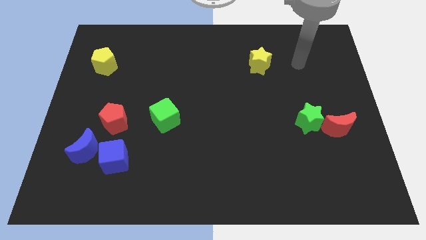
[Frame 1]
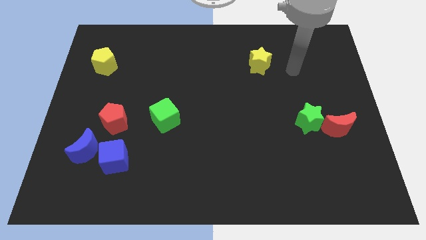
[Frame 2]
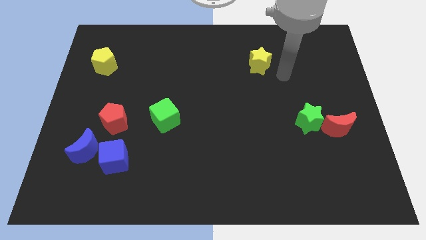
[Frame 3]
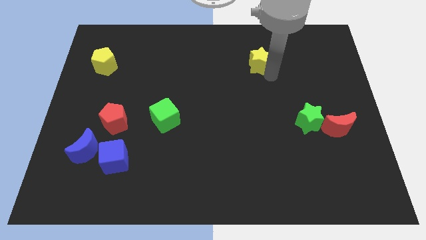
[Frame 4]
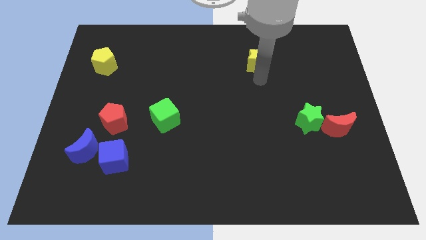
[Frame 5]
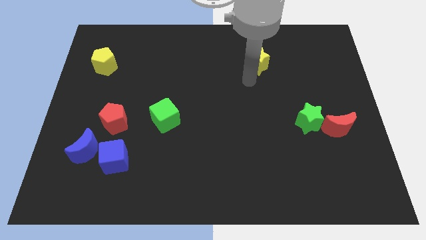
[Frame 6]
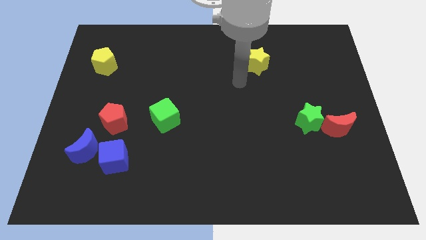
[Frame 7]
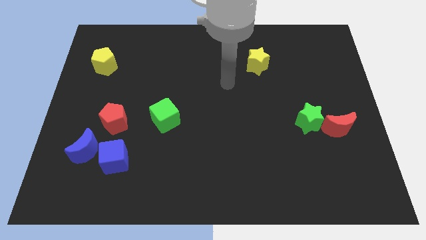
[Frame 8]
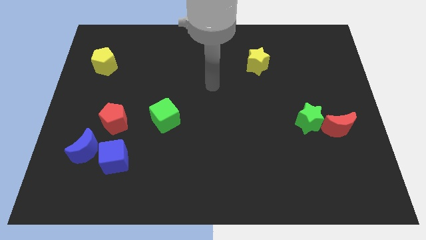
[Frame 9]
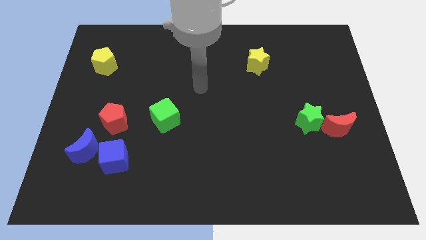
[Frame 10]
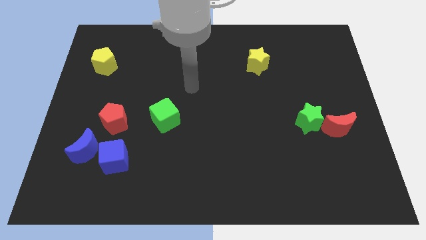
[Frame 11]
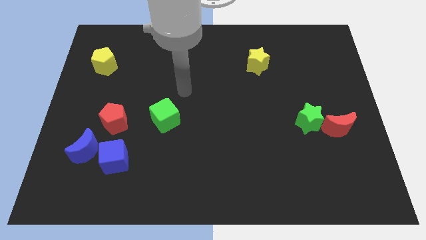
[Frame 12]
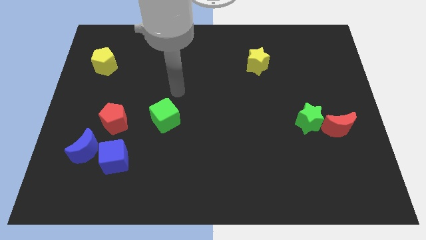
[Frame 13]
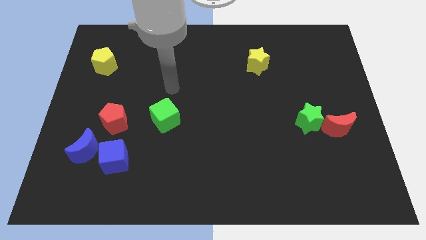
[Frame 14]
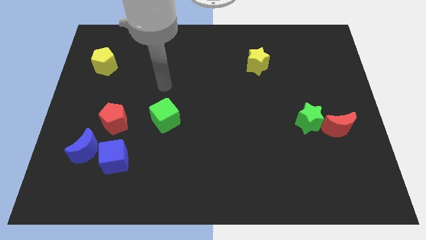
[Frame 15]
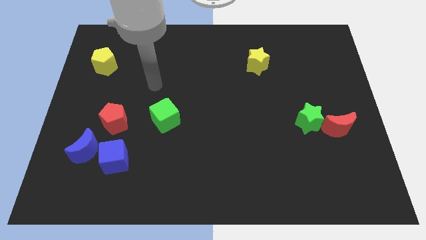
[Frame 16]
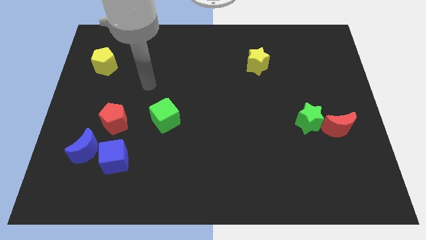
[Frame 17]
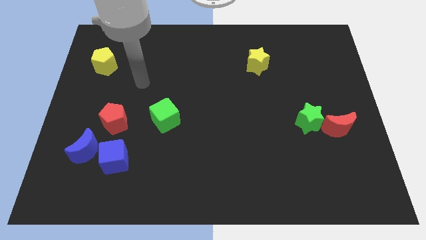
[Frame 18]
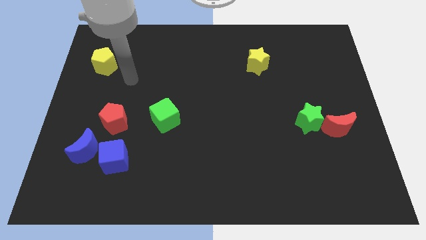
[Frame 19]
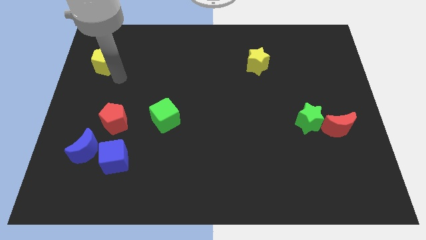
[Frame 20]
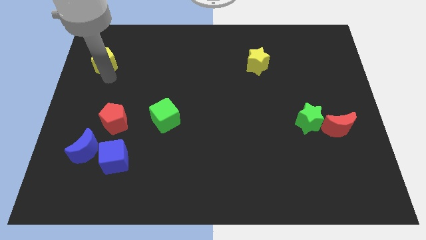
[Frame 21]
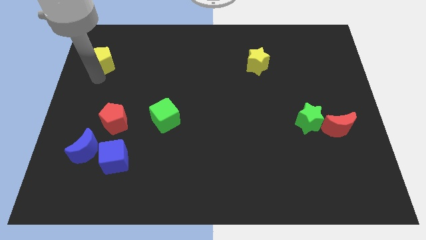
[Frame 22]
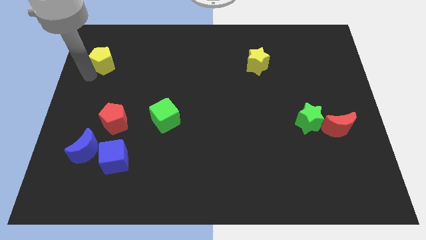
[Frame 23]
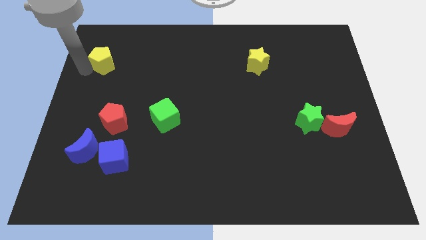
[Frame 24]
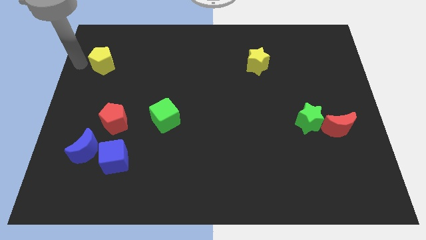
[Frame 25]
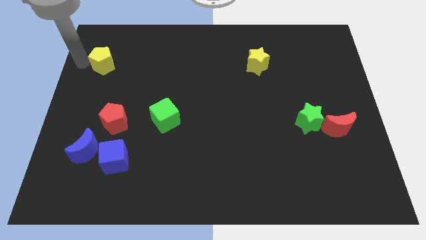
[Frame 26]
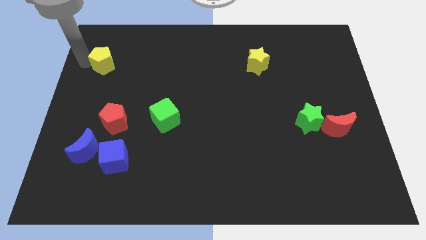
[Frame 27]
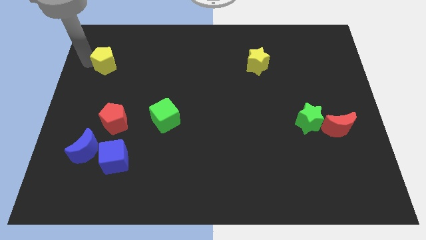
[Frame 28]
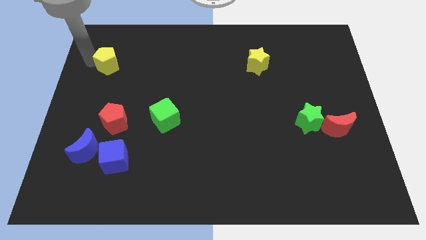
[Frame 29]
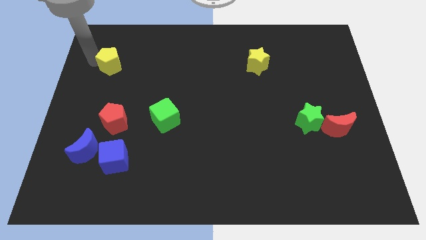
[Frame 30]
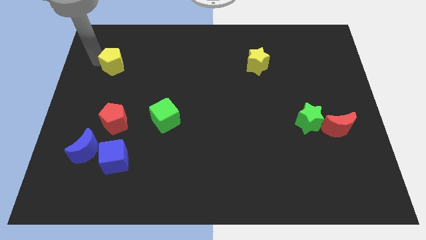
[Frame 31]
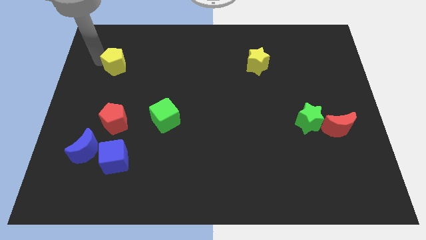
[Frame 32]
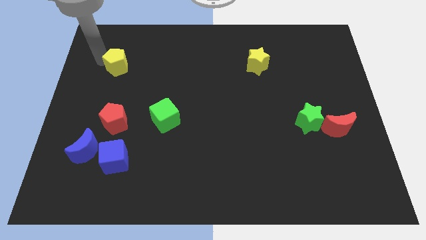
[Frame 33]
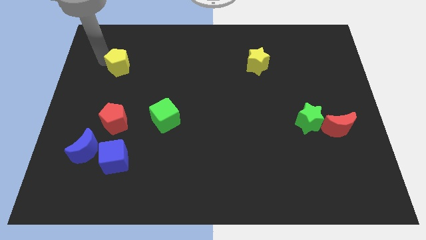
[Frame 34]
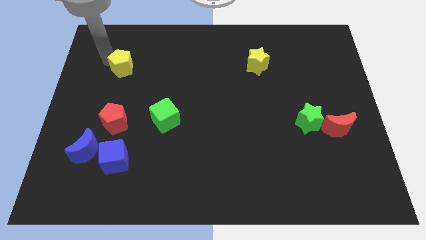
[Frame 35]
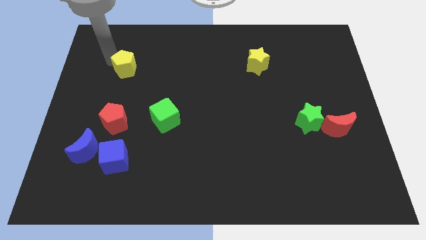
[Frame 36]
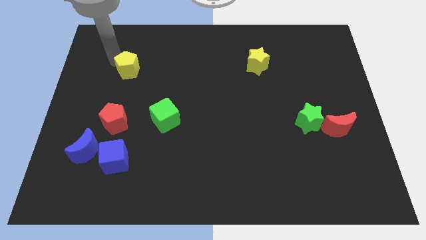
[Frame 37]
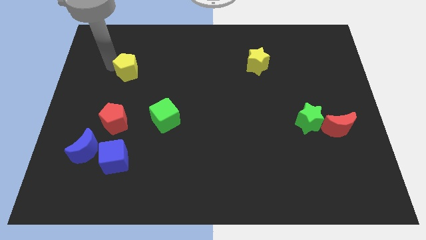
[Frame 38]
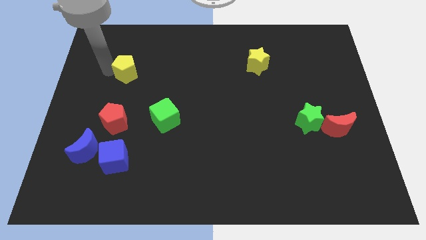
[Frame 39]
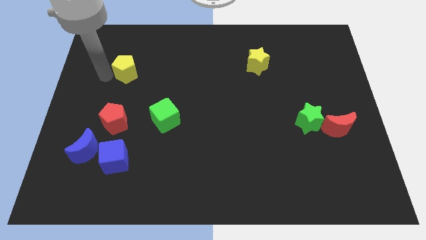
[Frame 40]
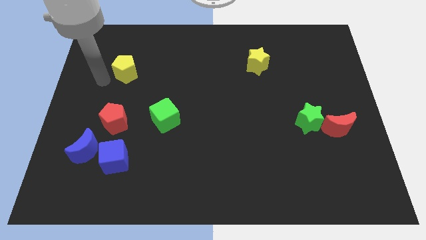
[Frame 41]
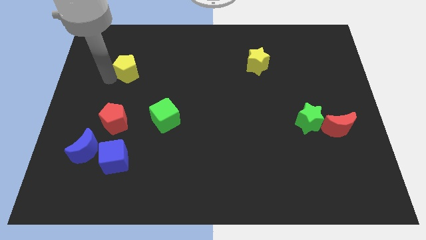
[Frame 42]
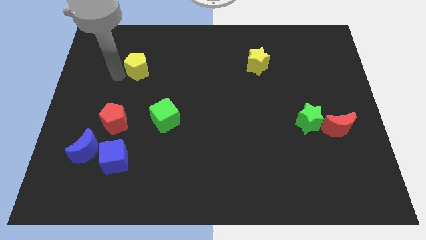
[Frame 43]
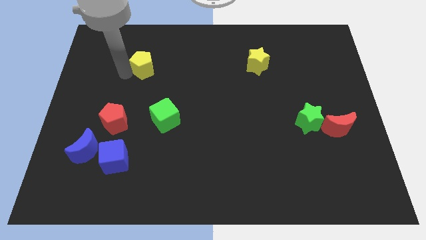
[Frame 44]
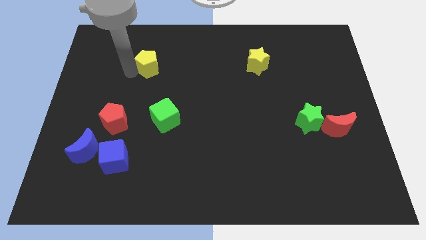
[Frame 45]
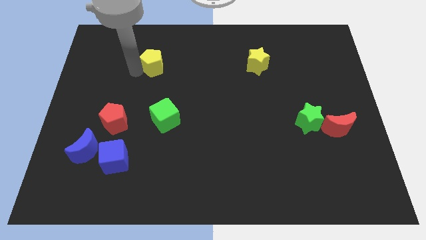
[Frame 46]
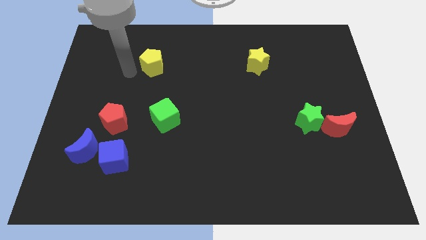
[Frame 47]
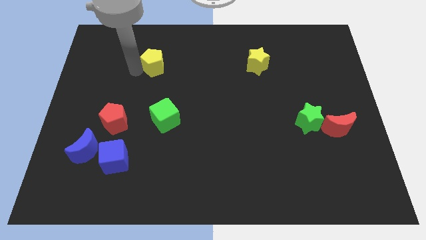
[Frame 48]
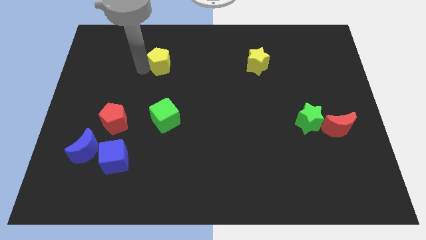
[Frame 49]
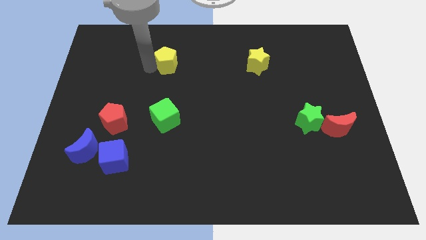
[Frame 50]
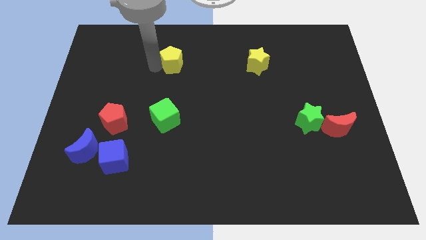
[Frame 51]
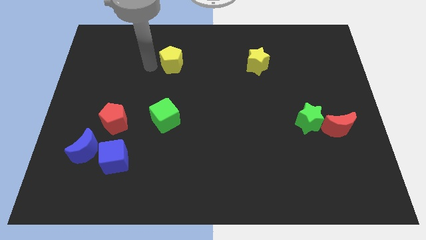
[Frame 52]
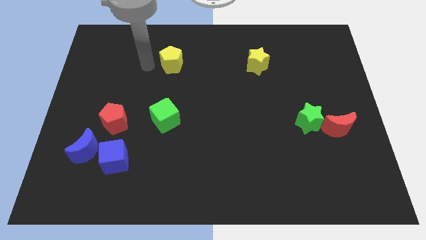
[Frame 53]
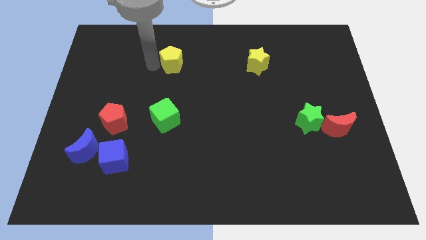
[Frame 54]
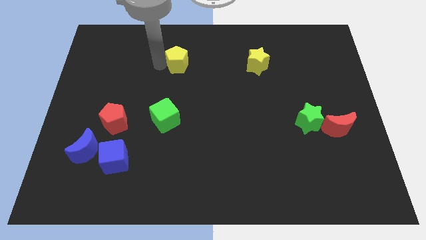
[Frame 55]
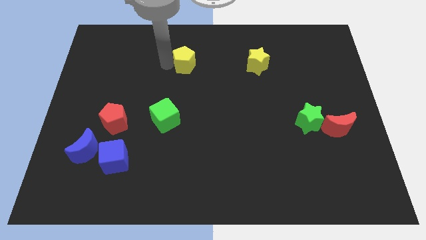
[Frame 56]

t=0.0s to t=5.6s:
move the yellow pentagon to the right

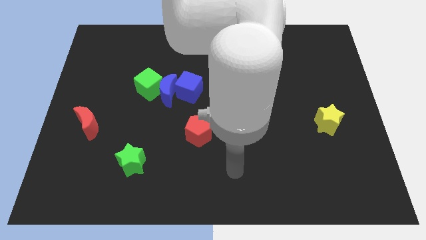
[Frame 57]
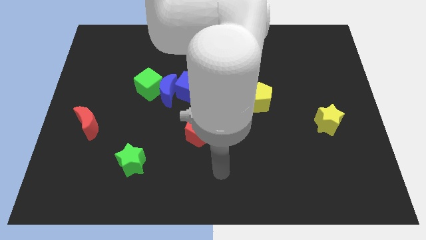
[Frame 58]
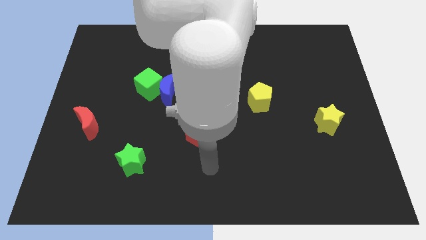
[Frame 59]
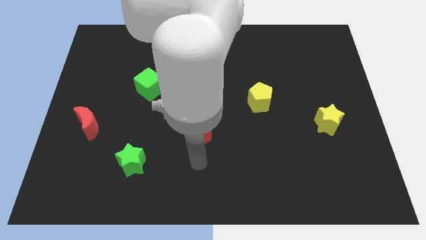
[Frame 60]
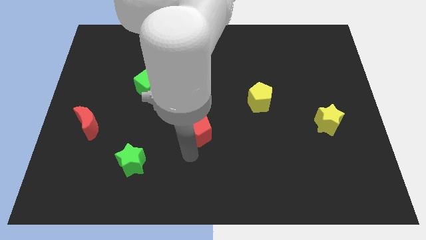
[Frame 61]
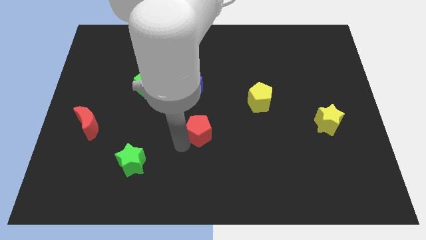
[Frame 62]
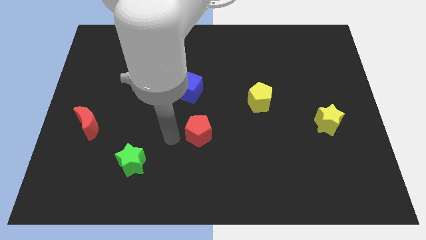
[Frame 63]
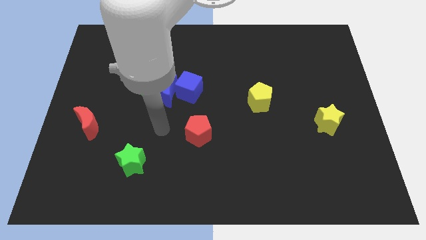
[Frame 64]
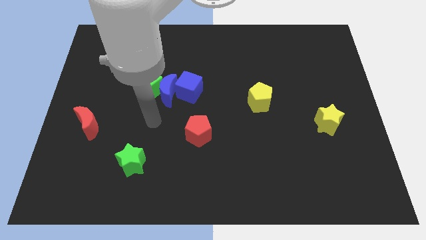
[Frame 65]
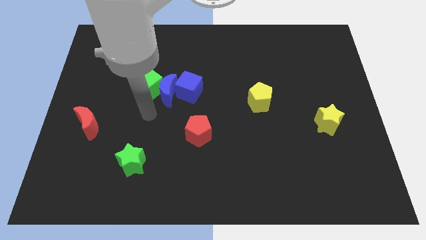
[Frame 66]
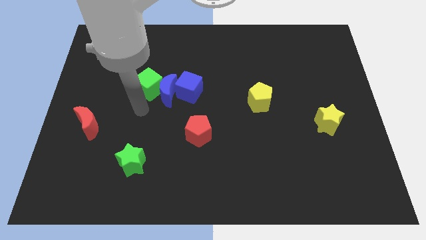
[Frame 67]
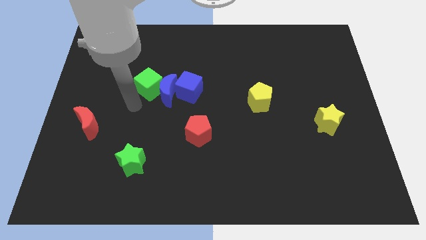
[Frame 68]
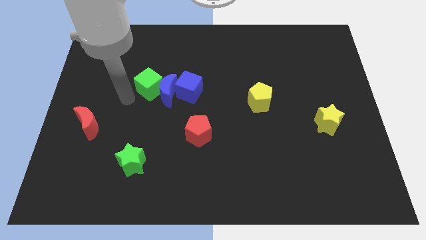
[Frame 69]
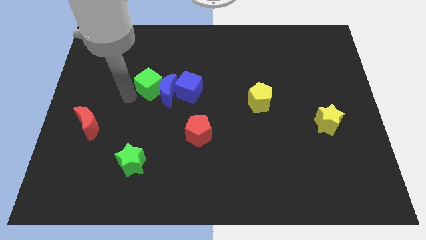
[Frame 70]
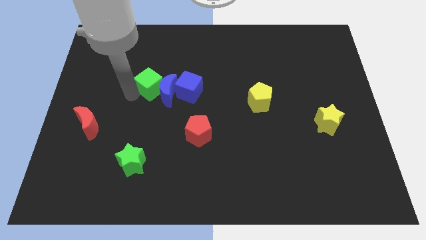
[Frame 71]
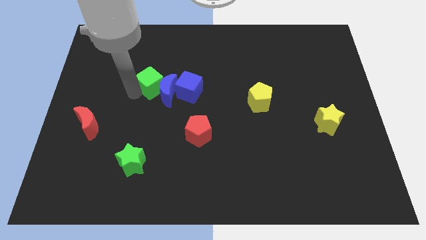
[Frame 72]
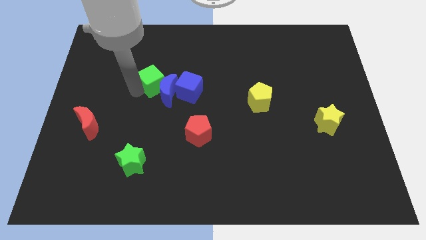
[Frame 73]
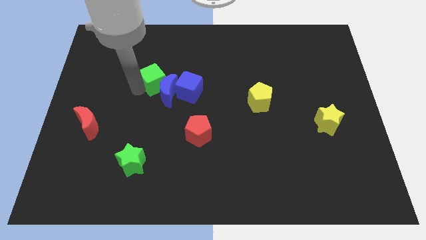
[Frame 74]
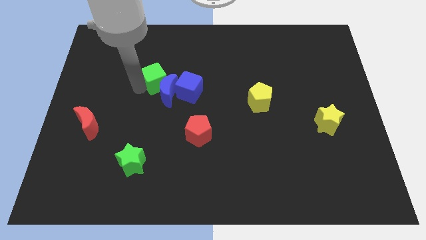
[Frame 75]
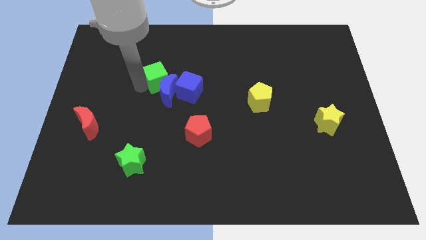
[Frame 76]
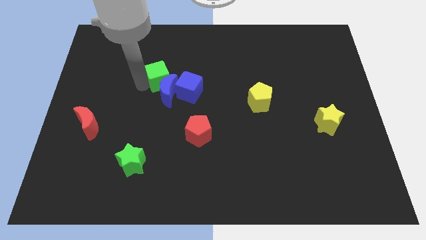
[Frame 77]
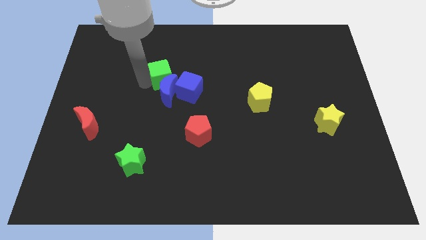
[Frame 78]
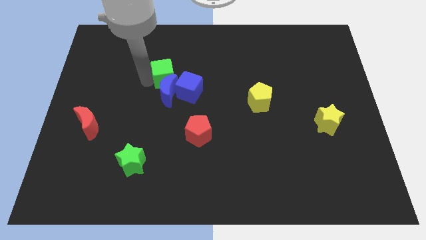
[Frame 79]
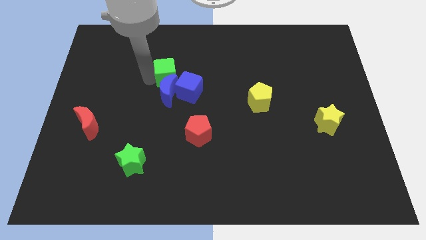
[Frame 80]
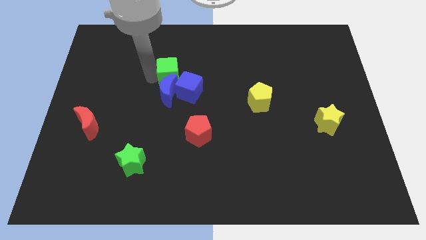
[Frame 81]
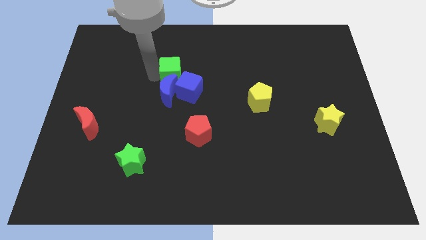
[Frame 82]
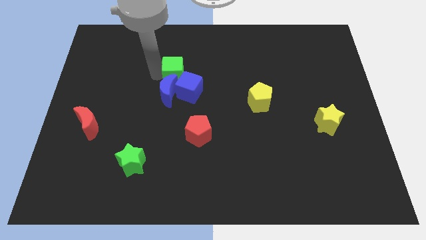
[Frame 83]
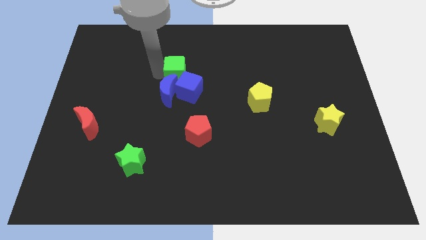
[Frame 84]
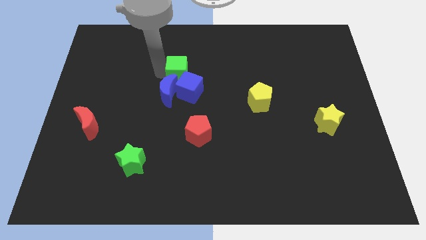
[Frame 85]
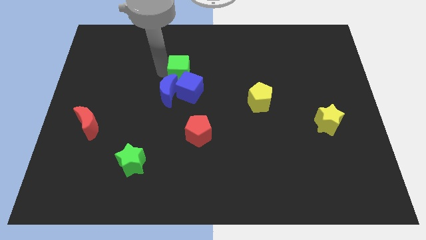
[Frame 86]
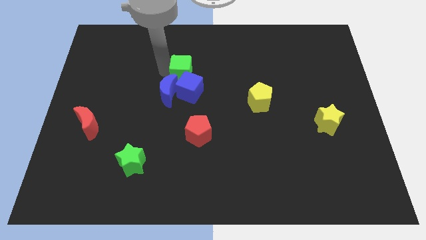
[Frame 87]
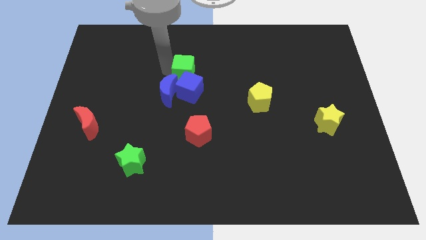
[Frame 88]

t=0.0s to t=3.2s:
push the green cube a little bit right
